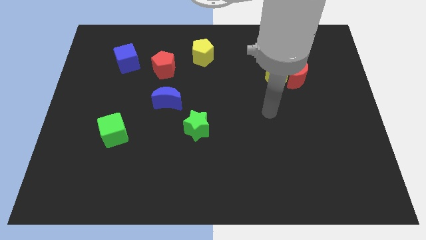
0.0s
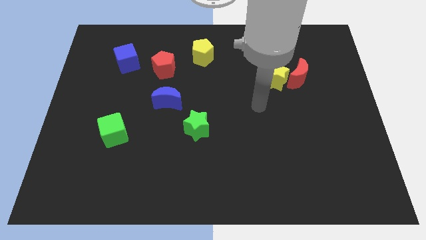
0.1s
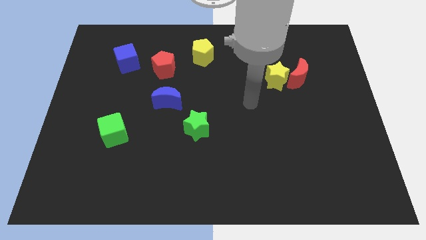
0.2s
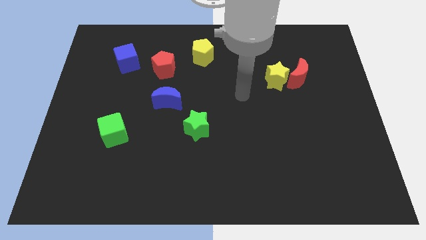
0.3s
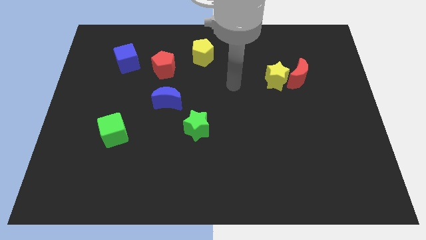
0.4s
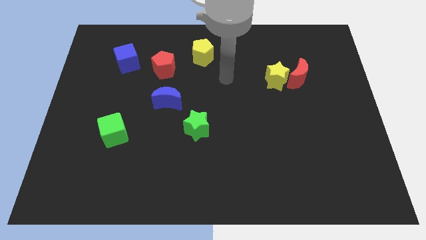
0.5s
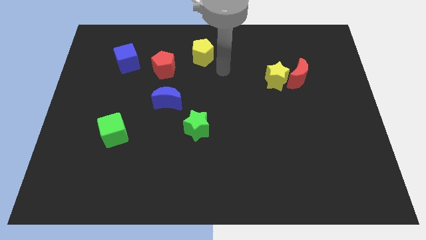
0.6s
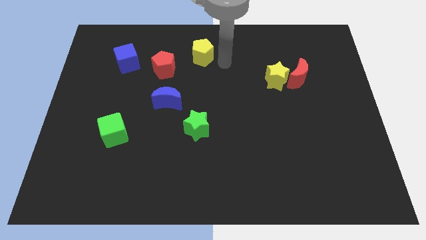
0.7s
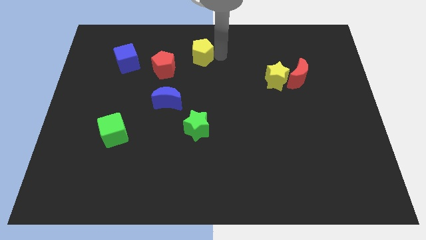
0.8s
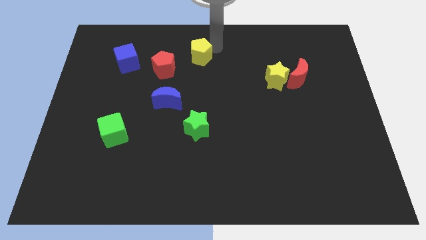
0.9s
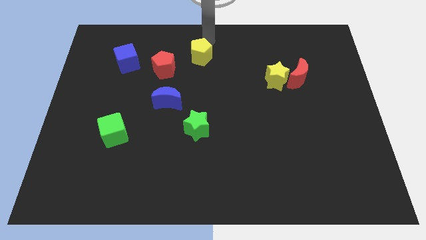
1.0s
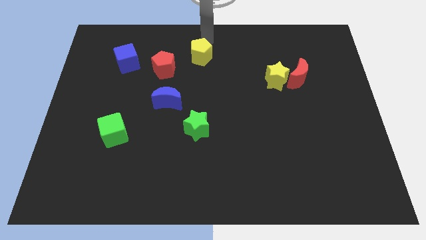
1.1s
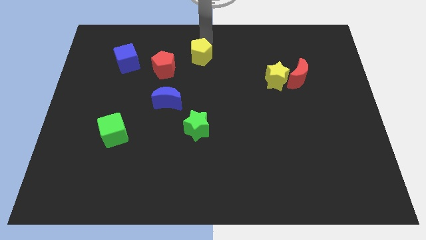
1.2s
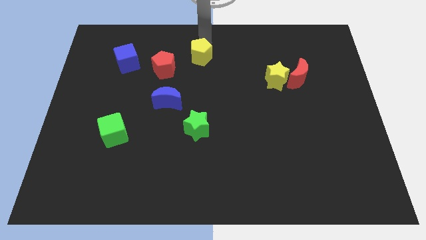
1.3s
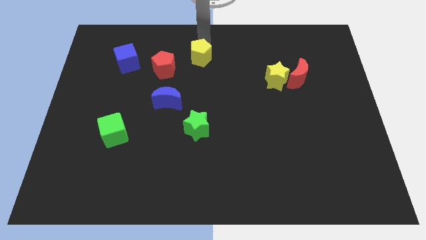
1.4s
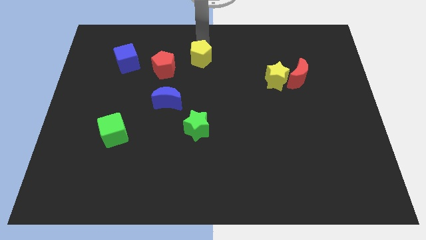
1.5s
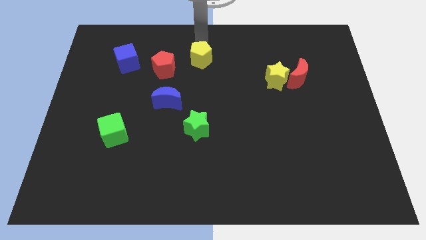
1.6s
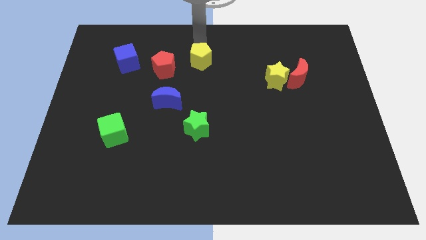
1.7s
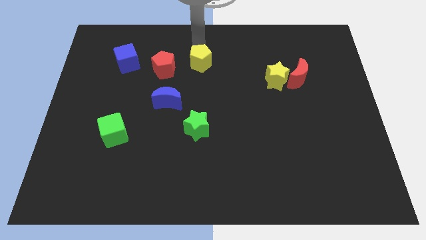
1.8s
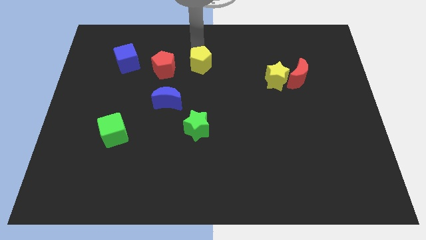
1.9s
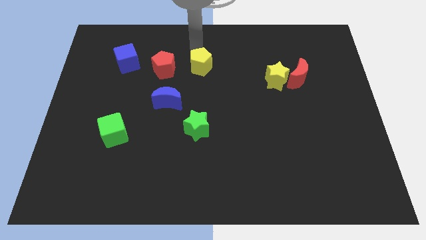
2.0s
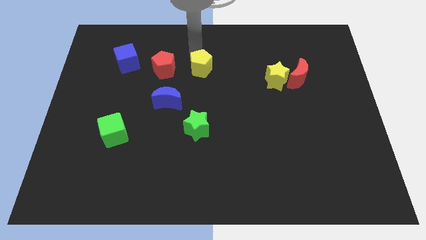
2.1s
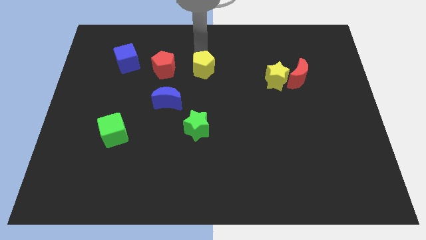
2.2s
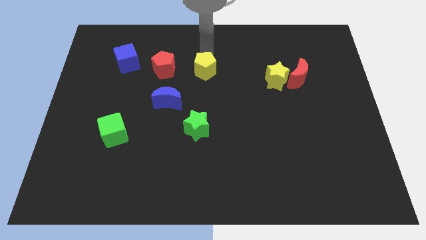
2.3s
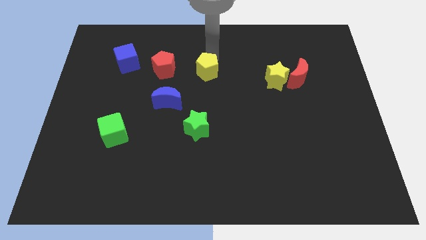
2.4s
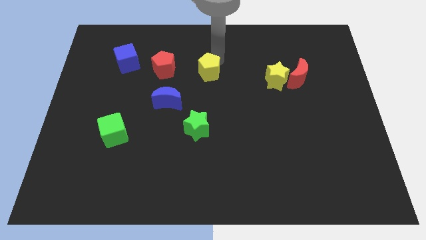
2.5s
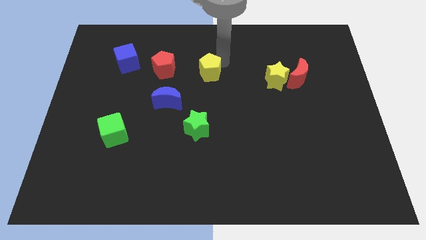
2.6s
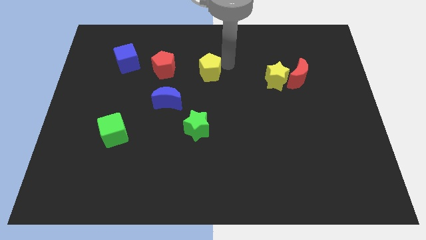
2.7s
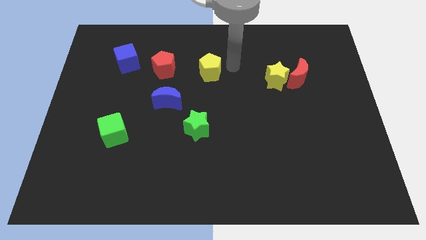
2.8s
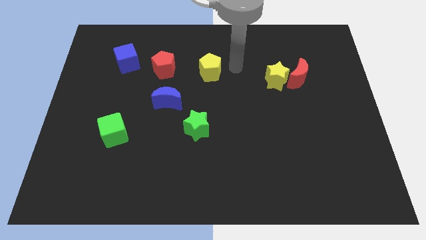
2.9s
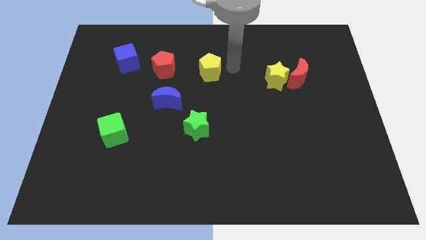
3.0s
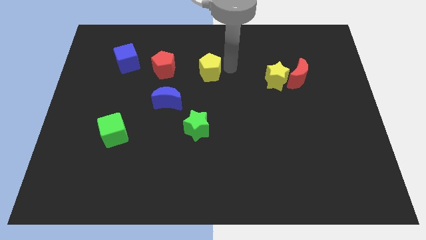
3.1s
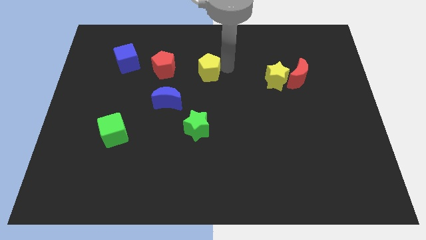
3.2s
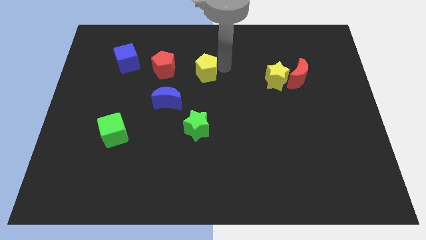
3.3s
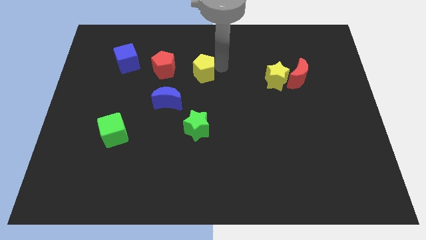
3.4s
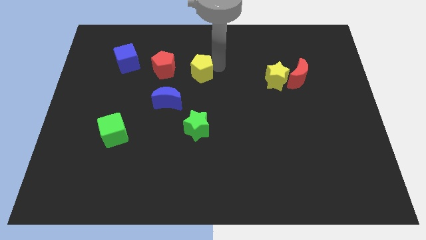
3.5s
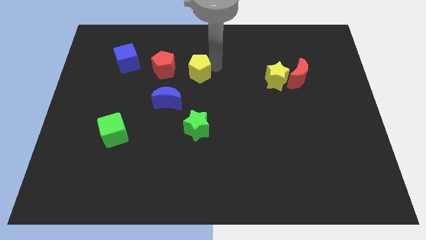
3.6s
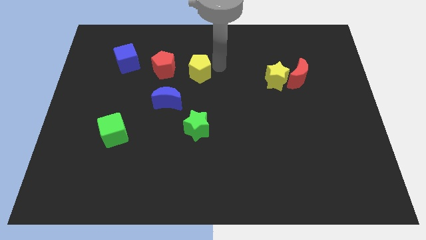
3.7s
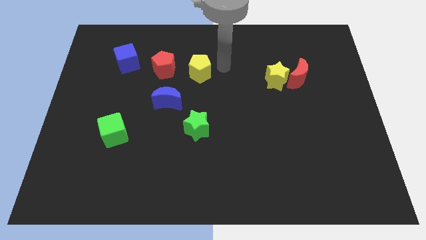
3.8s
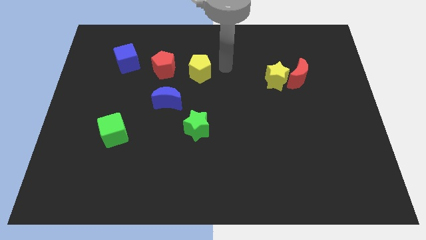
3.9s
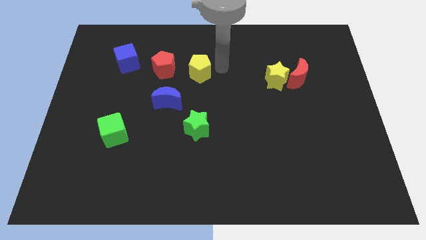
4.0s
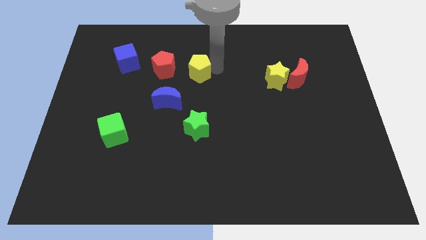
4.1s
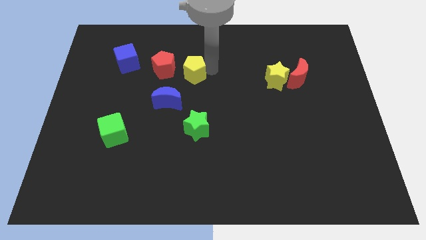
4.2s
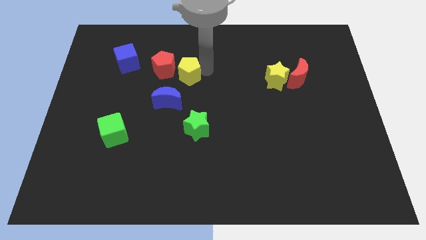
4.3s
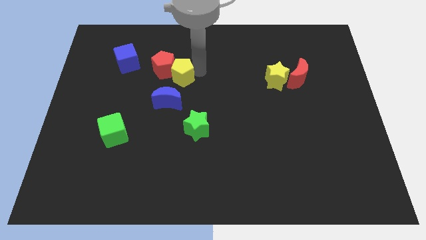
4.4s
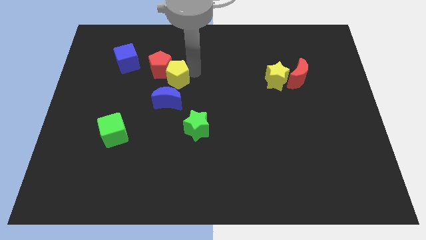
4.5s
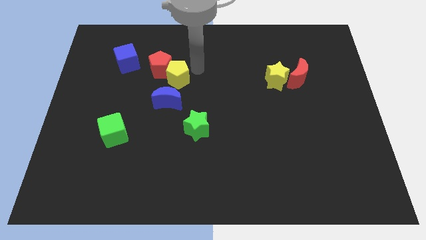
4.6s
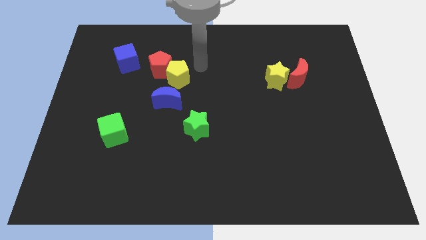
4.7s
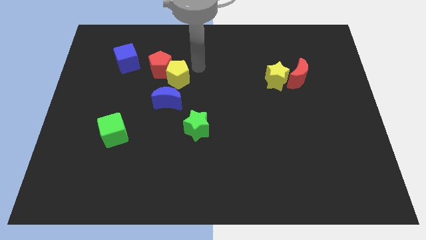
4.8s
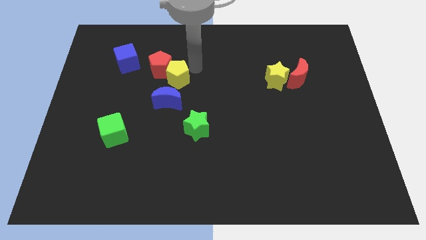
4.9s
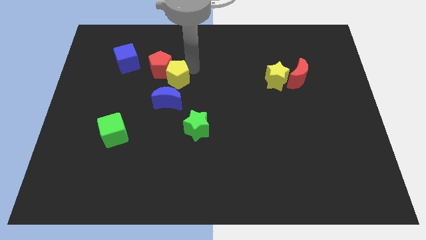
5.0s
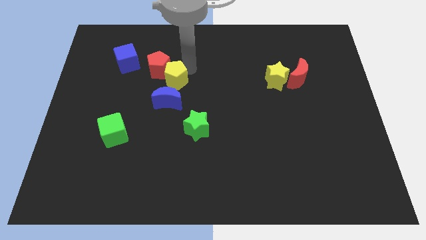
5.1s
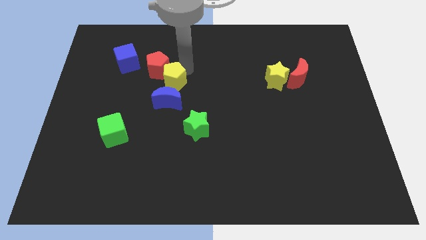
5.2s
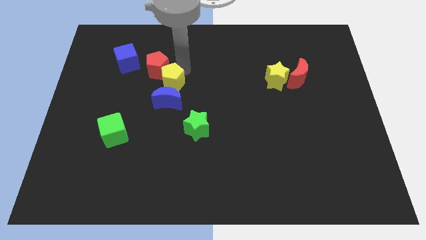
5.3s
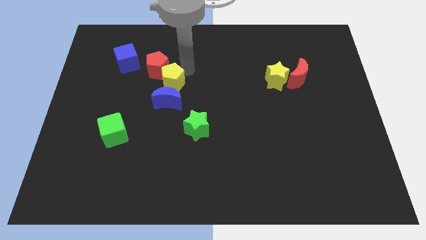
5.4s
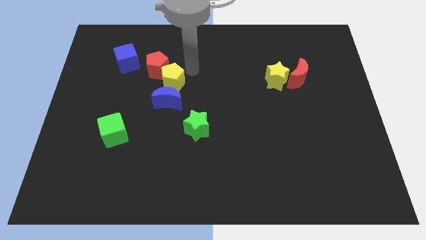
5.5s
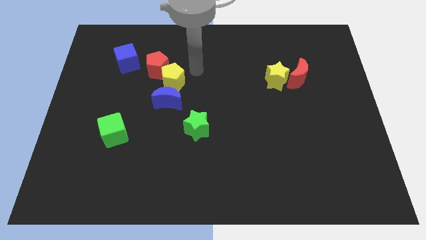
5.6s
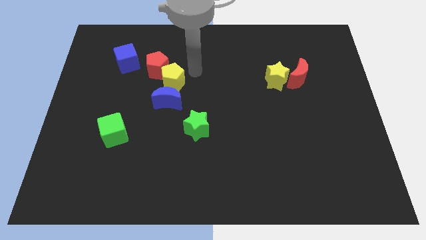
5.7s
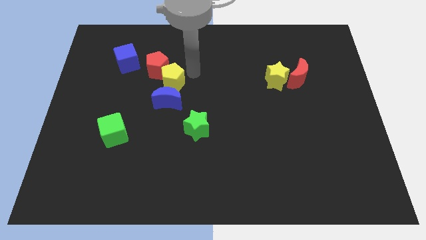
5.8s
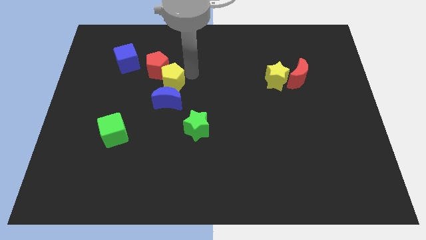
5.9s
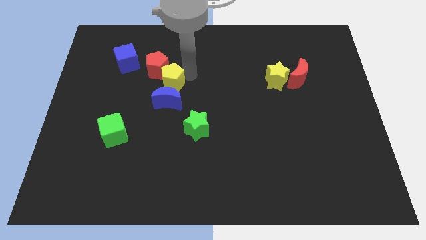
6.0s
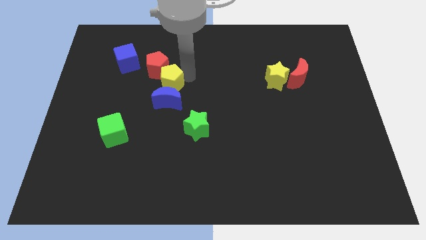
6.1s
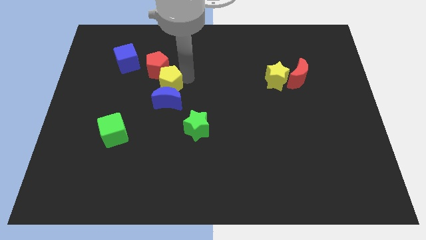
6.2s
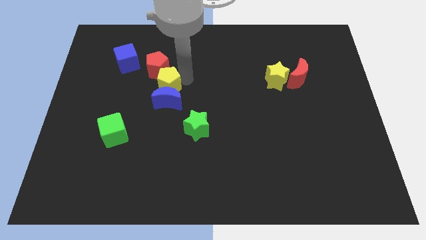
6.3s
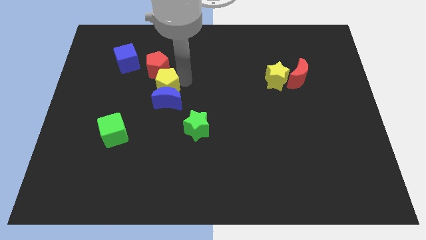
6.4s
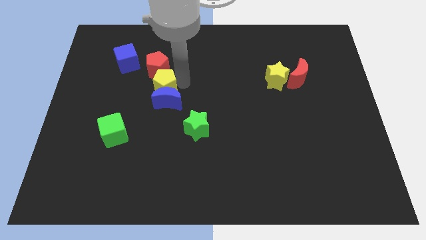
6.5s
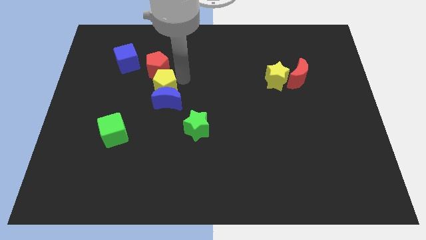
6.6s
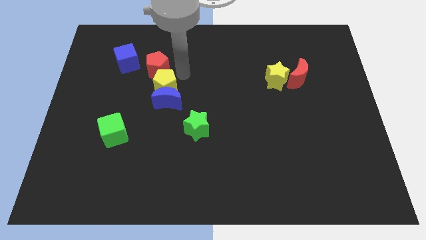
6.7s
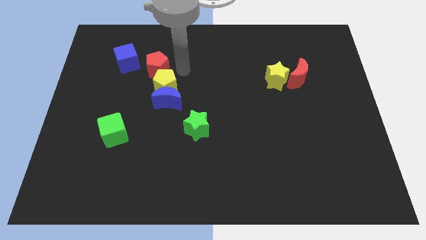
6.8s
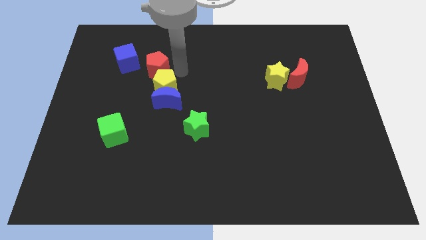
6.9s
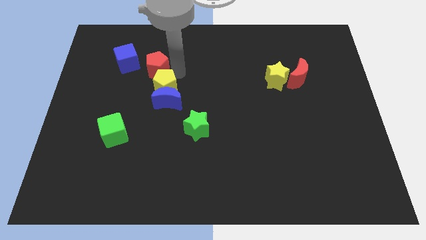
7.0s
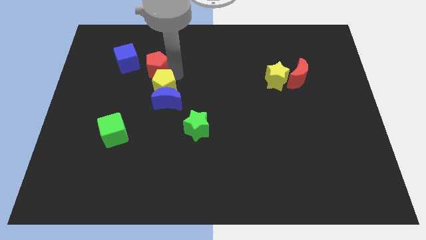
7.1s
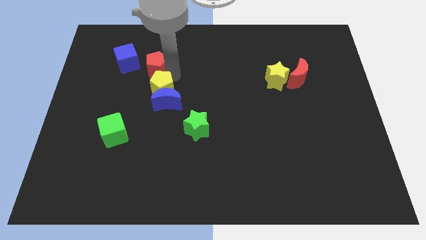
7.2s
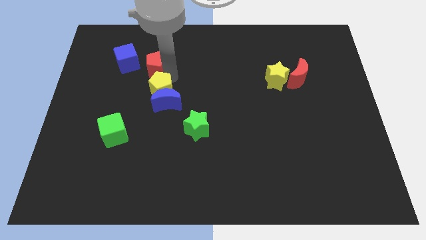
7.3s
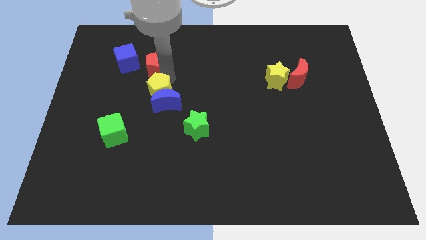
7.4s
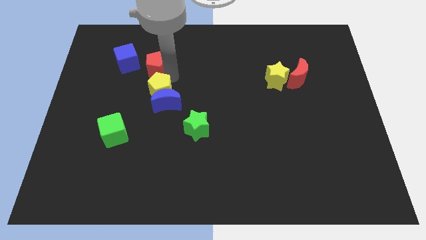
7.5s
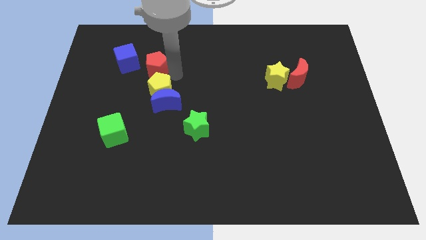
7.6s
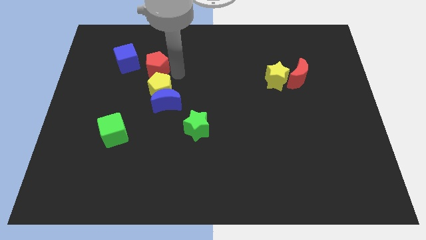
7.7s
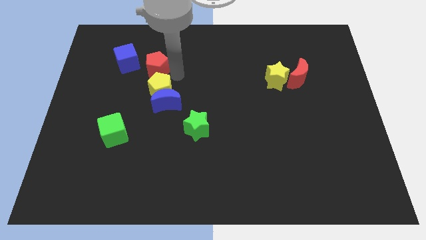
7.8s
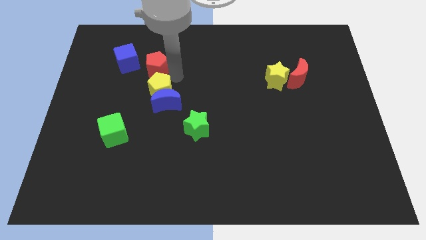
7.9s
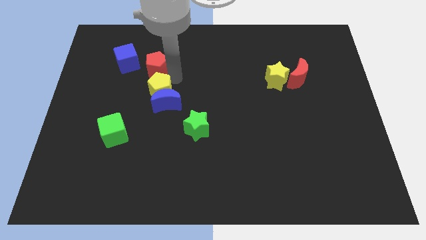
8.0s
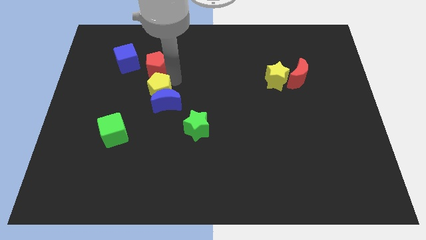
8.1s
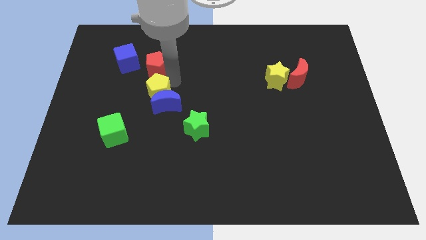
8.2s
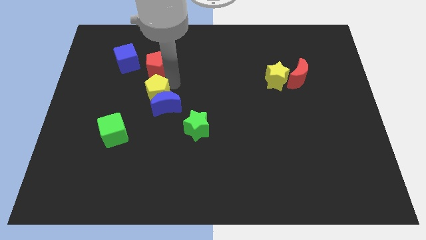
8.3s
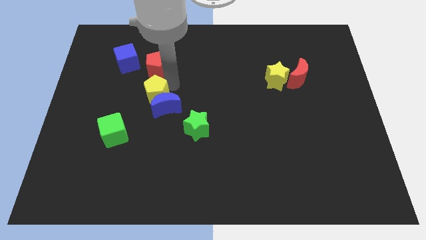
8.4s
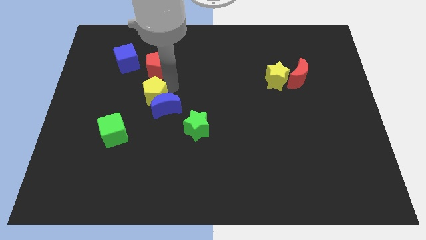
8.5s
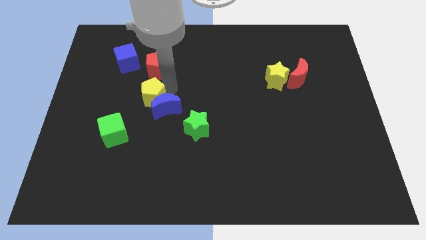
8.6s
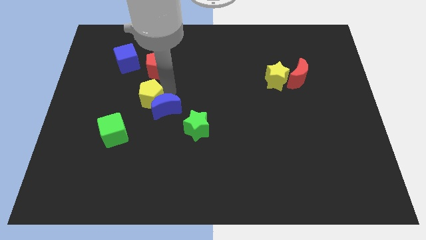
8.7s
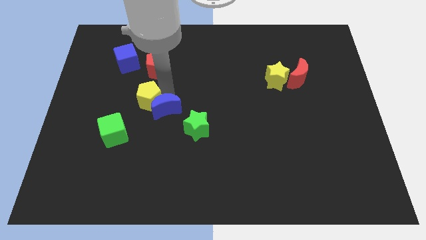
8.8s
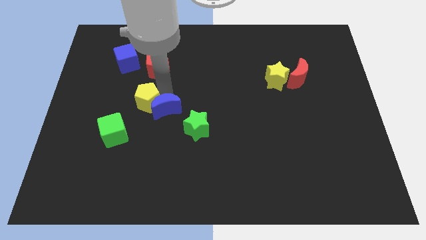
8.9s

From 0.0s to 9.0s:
push the yellow pentagon downwards and left
